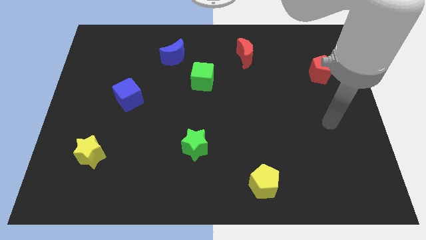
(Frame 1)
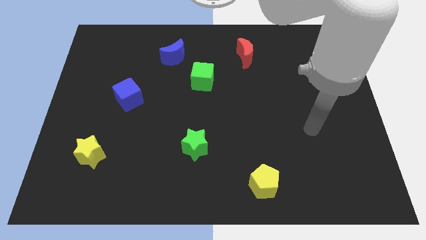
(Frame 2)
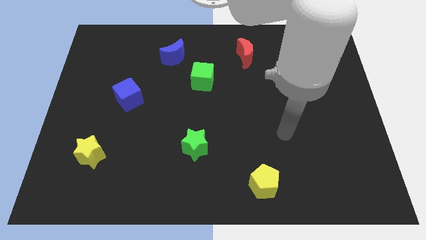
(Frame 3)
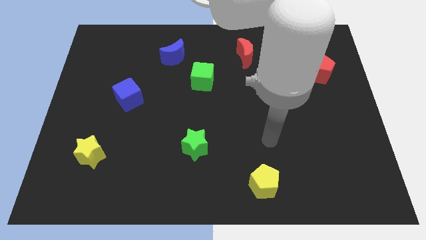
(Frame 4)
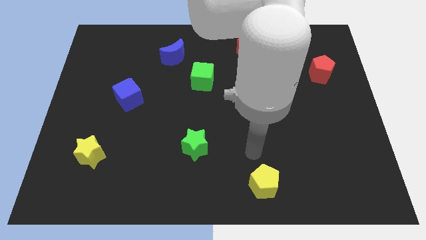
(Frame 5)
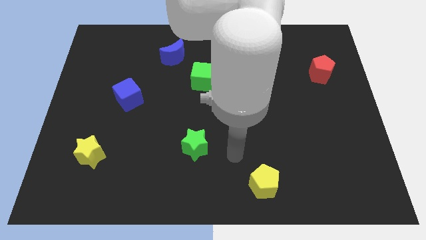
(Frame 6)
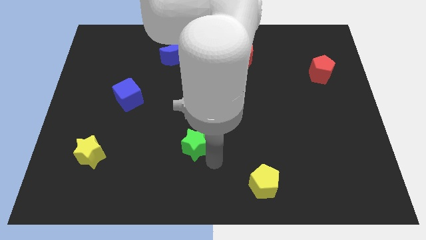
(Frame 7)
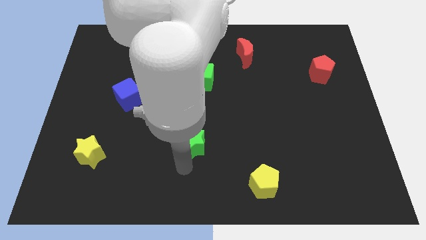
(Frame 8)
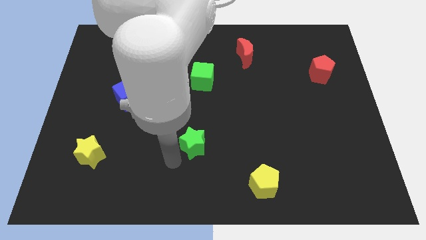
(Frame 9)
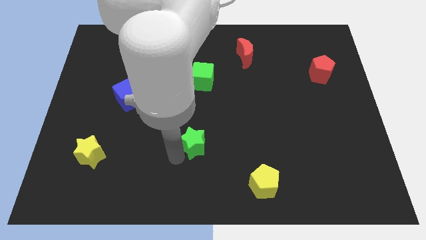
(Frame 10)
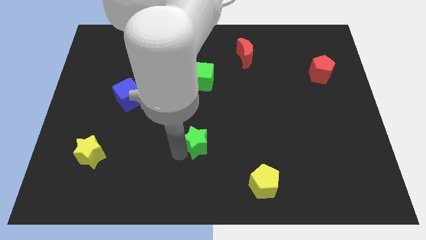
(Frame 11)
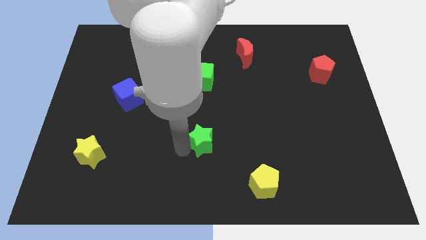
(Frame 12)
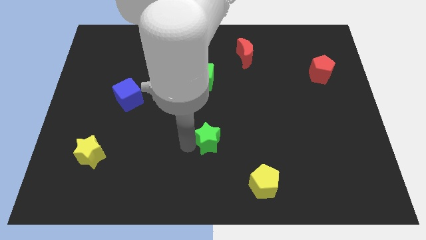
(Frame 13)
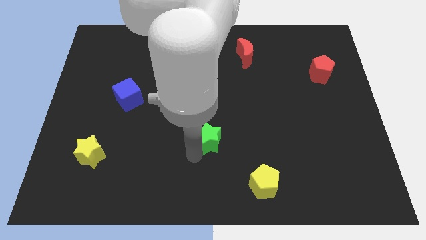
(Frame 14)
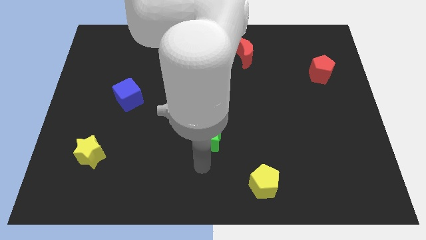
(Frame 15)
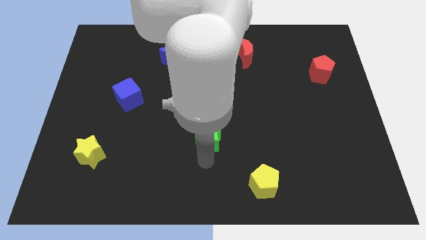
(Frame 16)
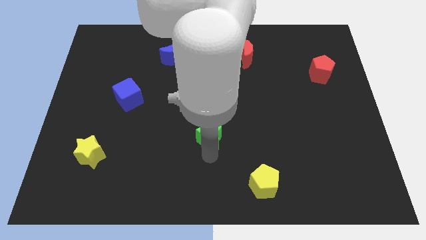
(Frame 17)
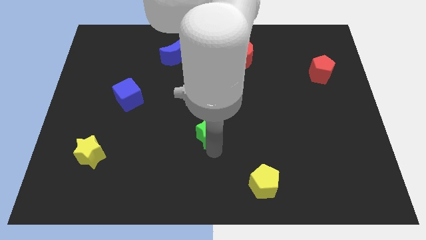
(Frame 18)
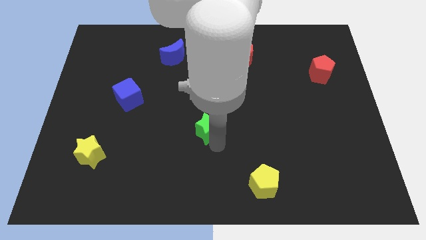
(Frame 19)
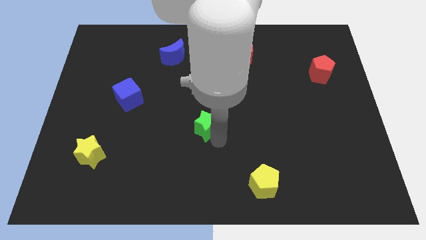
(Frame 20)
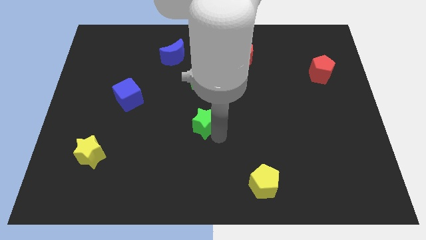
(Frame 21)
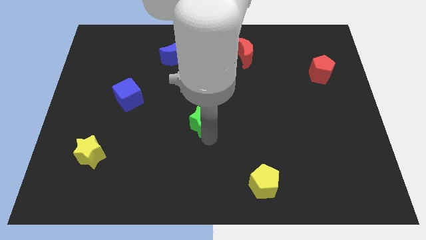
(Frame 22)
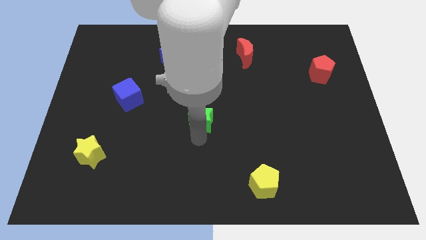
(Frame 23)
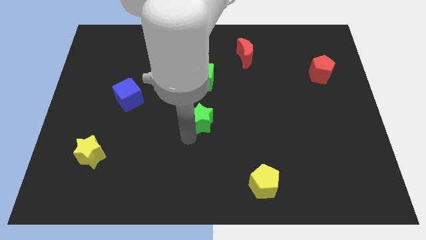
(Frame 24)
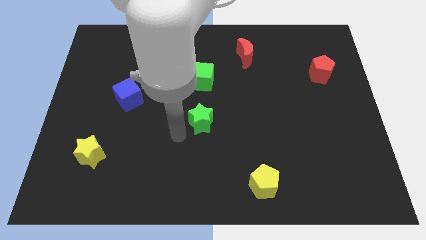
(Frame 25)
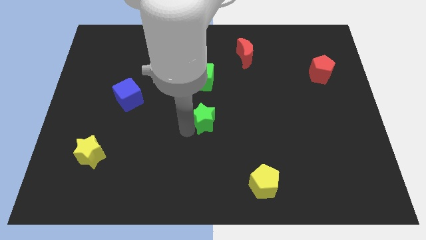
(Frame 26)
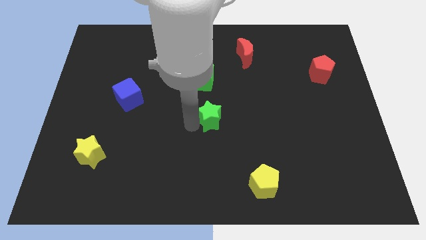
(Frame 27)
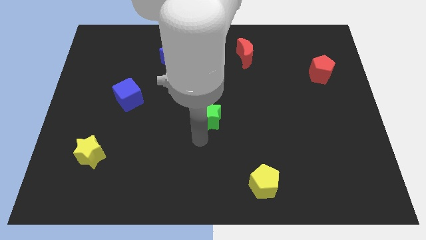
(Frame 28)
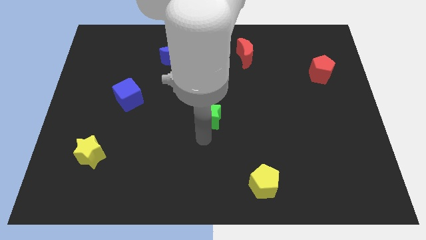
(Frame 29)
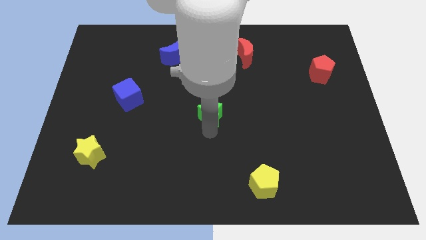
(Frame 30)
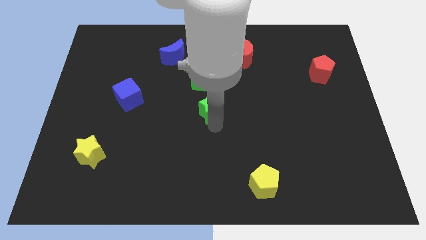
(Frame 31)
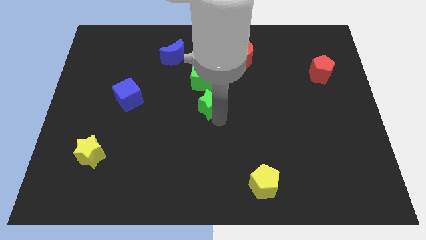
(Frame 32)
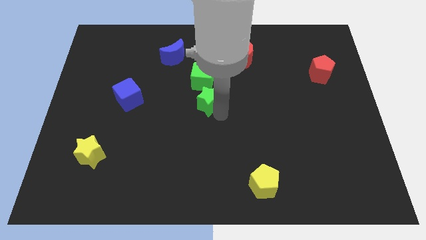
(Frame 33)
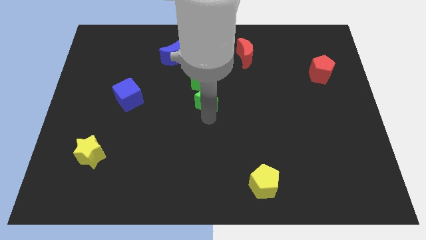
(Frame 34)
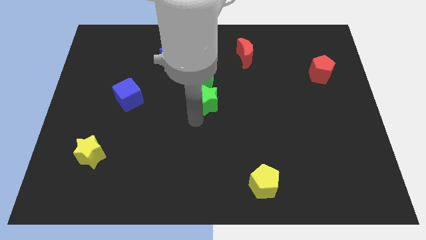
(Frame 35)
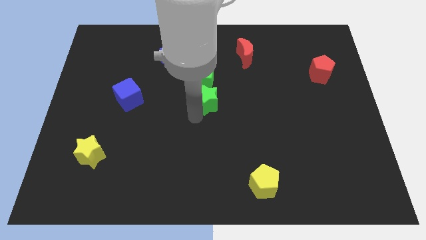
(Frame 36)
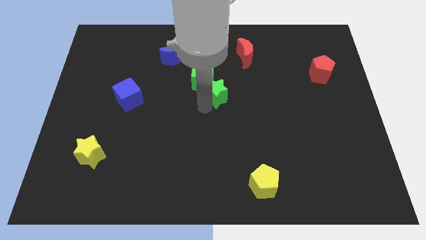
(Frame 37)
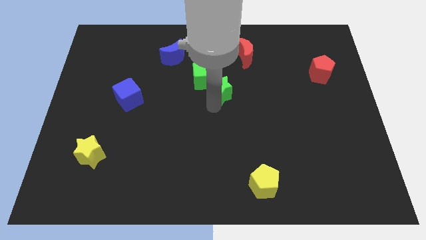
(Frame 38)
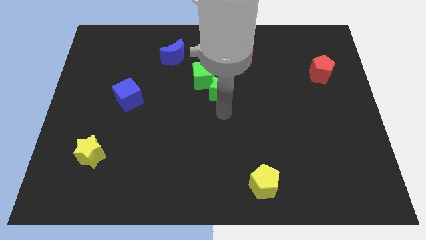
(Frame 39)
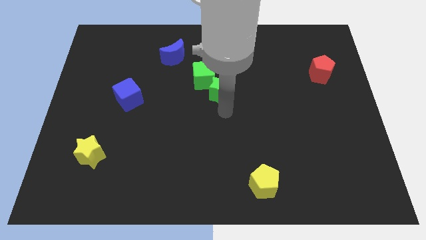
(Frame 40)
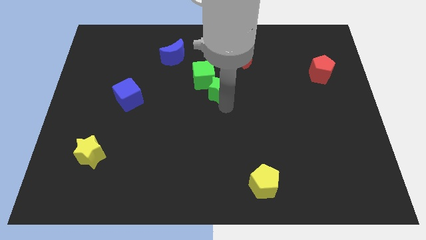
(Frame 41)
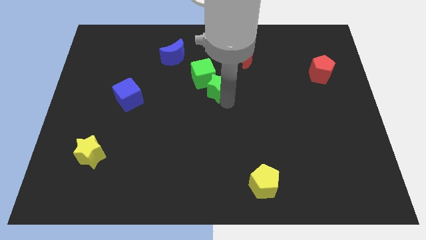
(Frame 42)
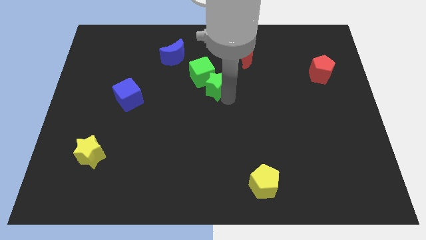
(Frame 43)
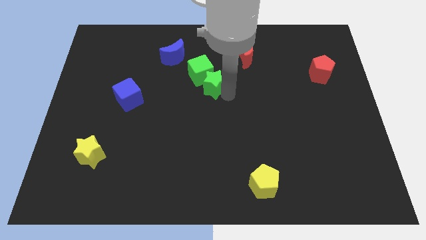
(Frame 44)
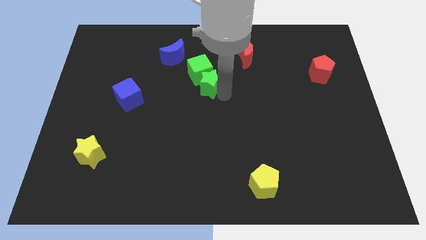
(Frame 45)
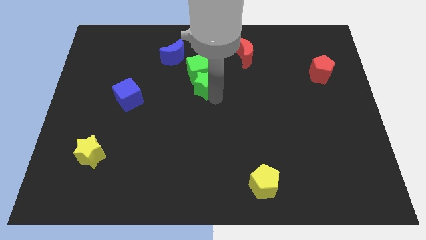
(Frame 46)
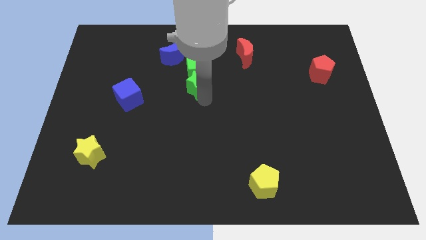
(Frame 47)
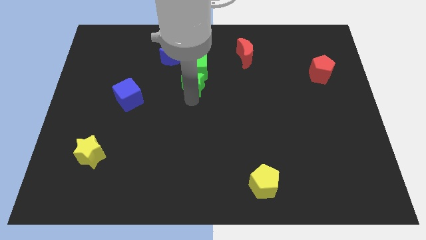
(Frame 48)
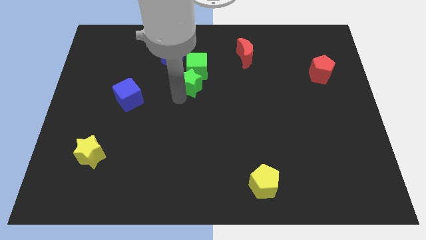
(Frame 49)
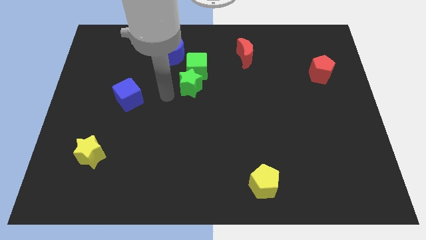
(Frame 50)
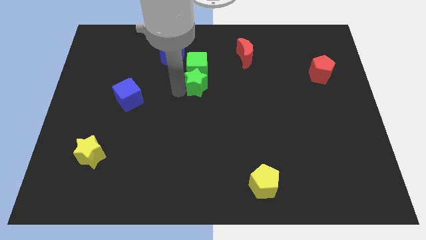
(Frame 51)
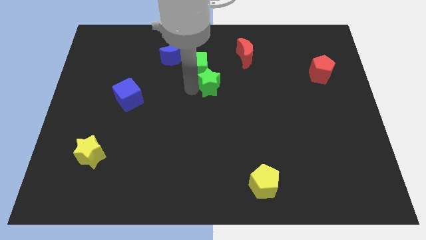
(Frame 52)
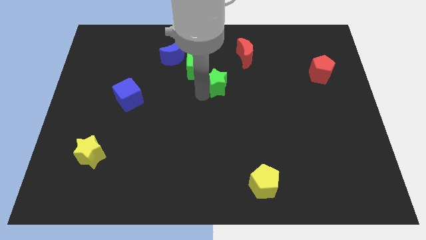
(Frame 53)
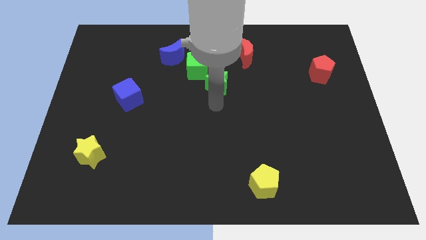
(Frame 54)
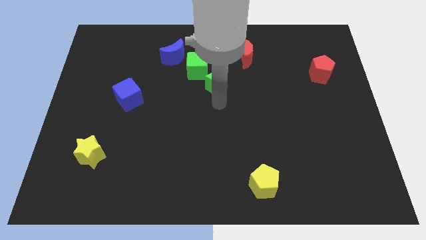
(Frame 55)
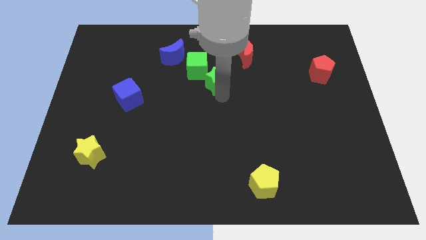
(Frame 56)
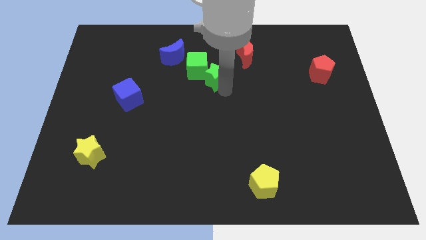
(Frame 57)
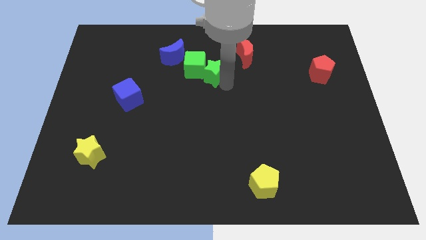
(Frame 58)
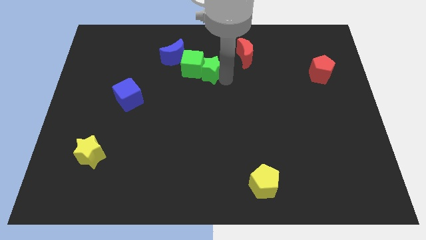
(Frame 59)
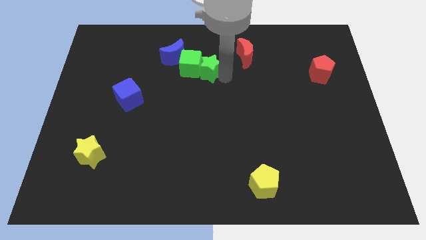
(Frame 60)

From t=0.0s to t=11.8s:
put the green star to the top right side of the green cube

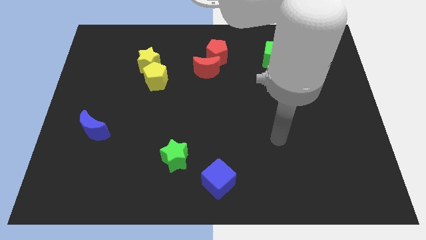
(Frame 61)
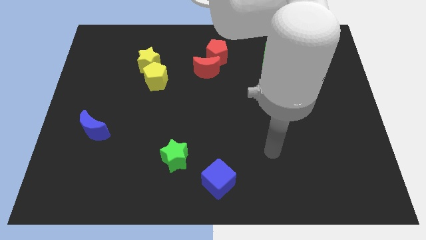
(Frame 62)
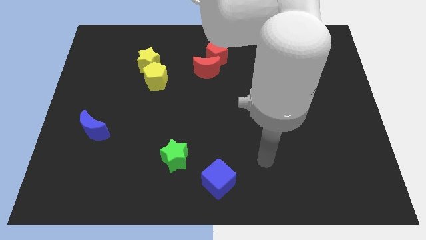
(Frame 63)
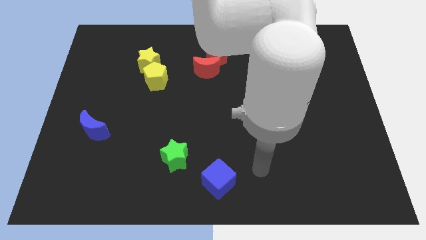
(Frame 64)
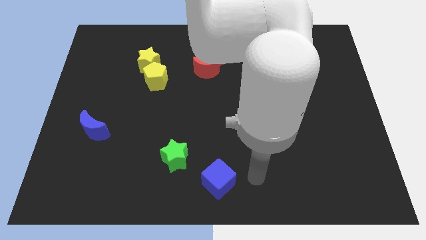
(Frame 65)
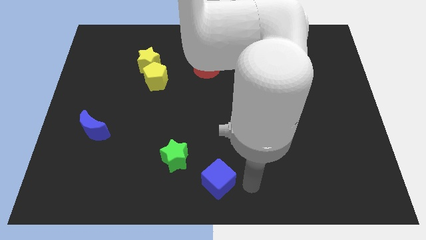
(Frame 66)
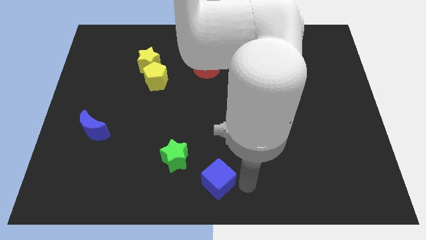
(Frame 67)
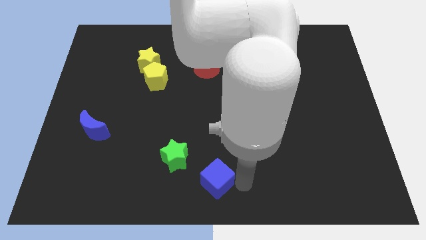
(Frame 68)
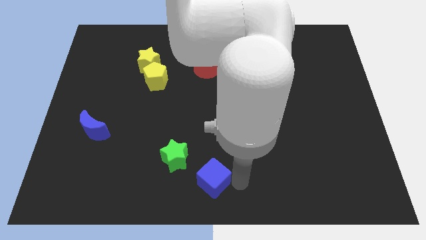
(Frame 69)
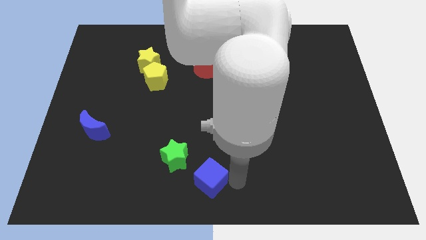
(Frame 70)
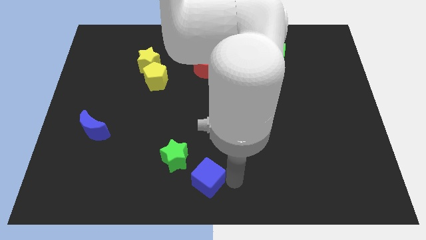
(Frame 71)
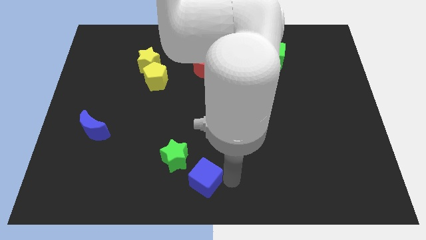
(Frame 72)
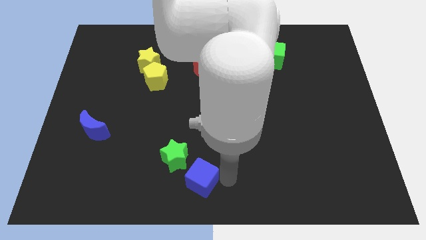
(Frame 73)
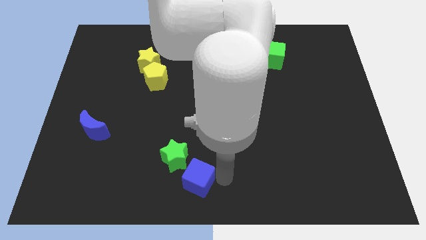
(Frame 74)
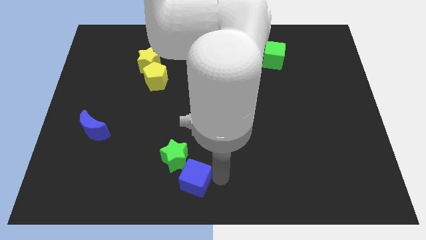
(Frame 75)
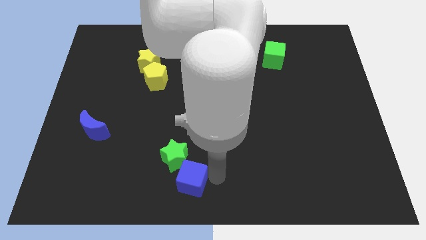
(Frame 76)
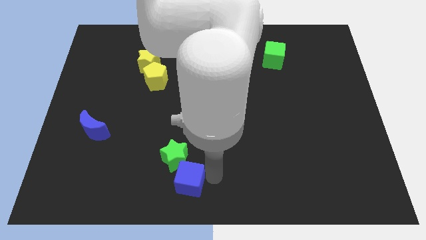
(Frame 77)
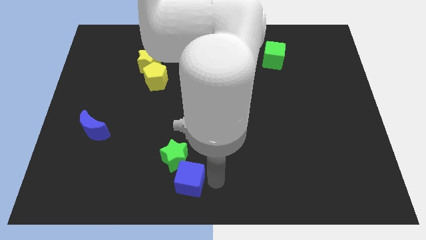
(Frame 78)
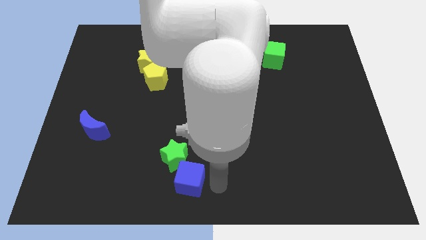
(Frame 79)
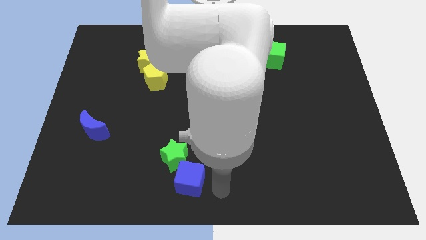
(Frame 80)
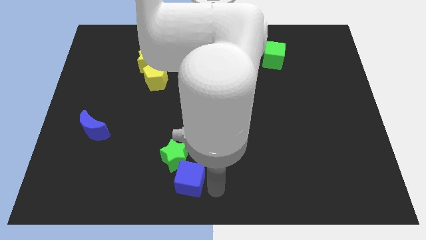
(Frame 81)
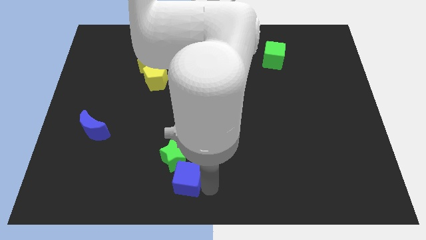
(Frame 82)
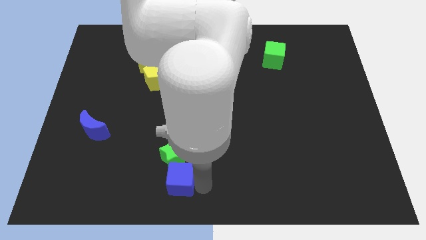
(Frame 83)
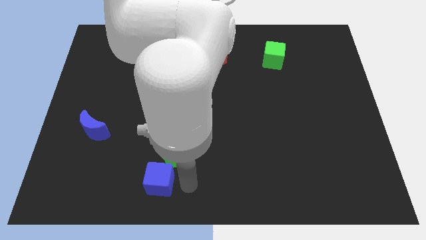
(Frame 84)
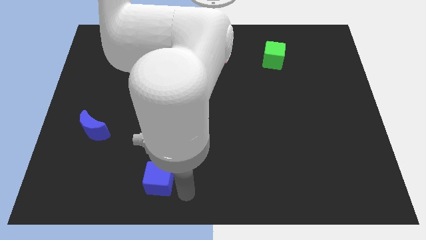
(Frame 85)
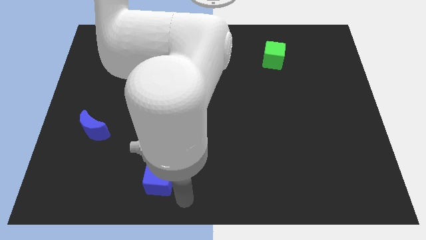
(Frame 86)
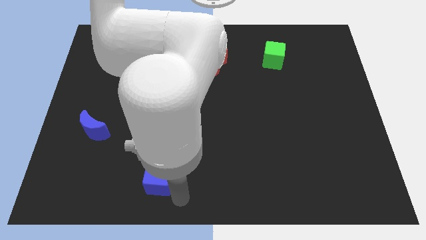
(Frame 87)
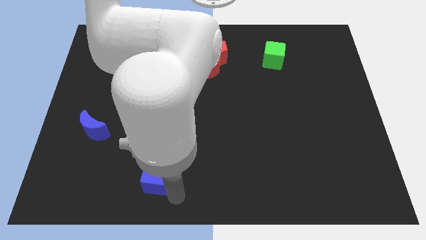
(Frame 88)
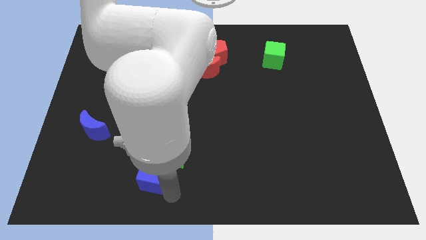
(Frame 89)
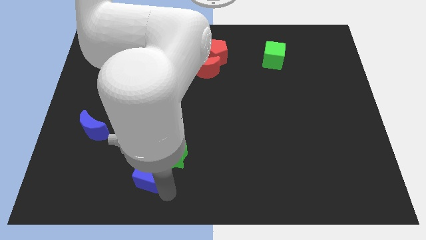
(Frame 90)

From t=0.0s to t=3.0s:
put the blue cube to the left of the green star
